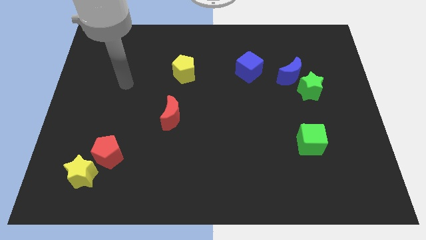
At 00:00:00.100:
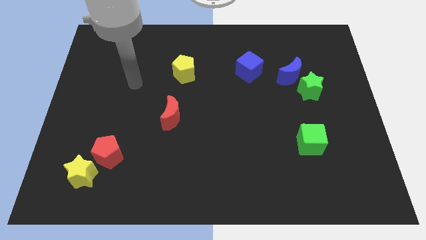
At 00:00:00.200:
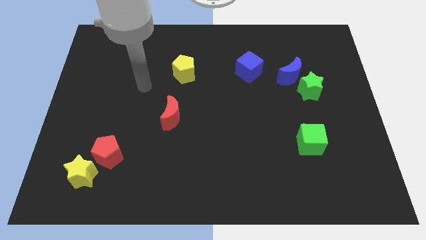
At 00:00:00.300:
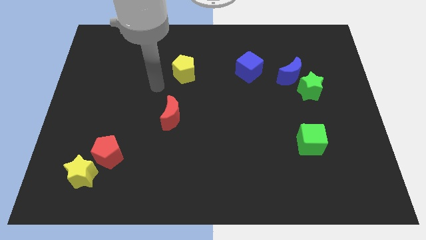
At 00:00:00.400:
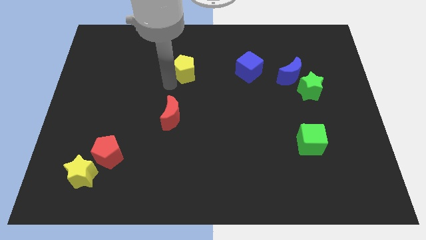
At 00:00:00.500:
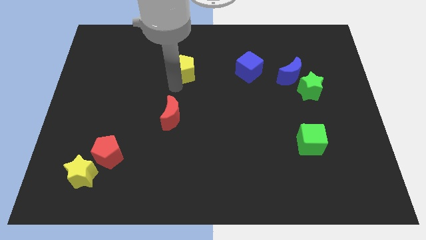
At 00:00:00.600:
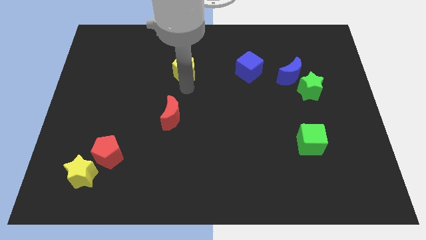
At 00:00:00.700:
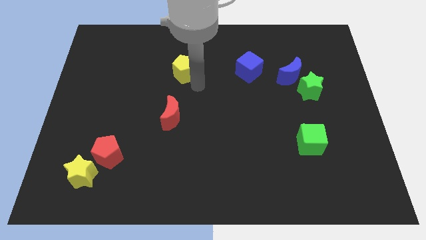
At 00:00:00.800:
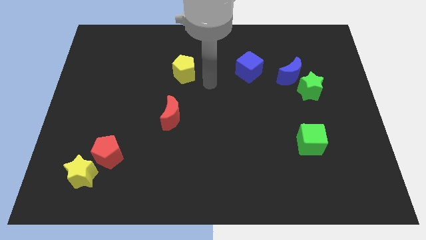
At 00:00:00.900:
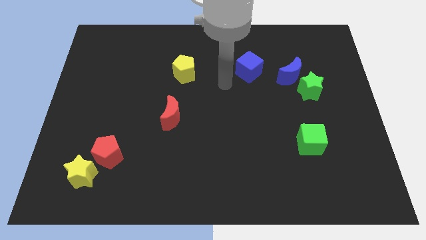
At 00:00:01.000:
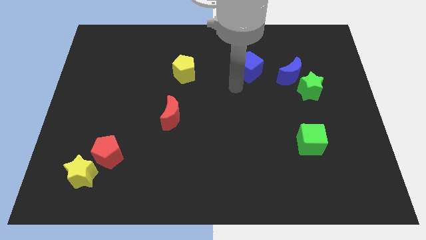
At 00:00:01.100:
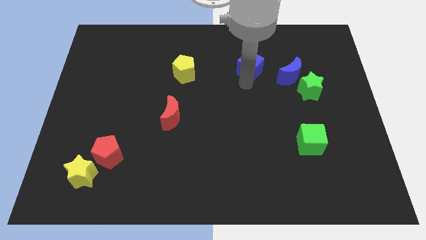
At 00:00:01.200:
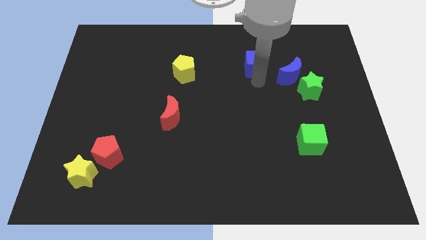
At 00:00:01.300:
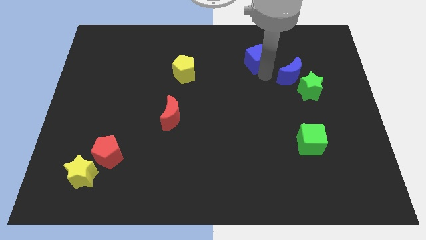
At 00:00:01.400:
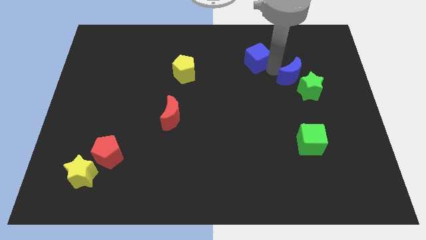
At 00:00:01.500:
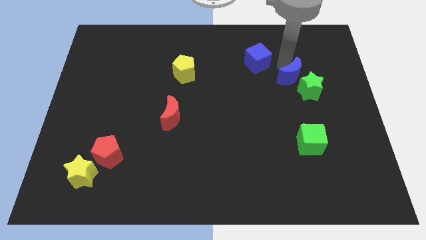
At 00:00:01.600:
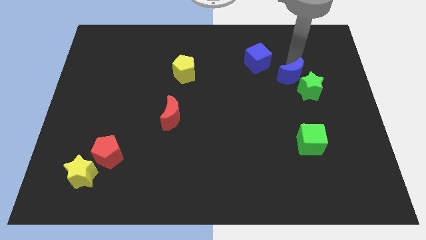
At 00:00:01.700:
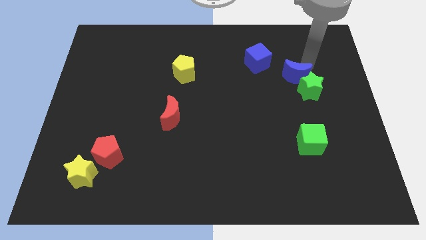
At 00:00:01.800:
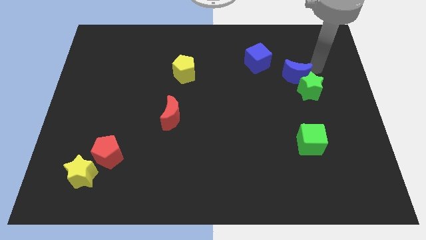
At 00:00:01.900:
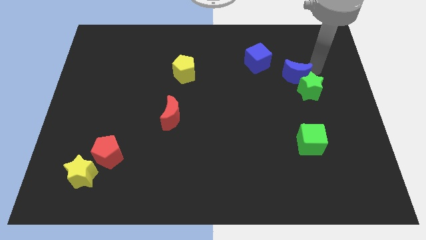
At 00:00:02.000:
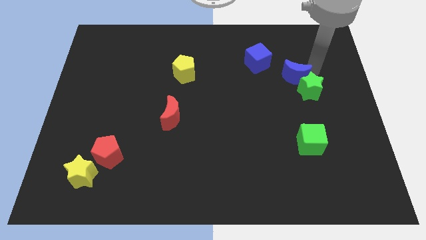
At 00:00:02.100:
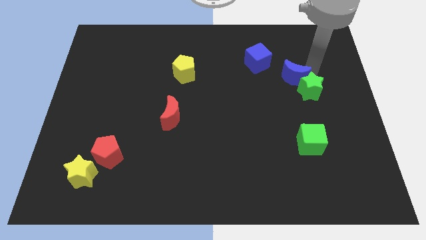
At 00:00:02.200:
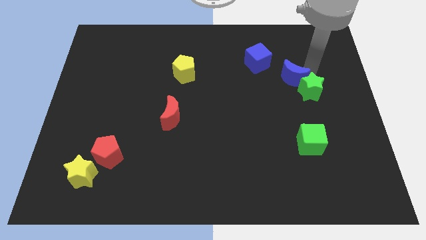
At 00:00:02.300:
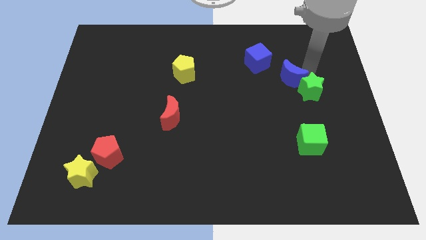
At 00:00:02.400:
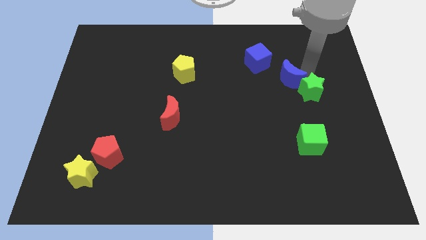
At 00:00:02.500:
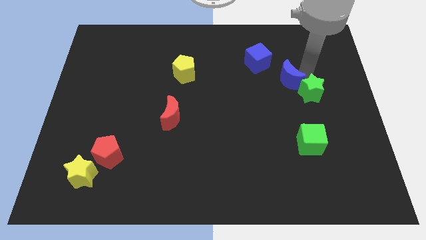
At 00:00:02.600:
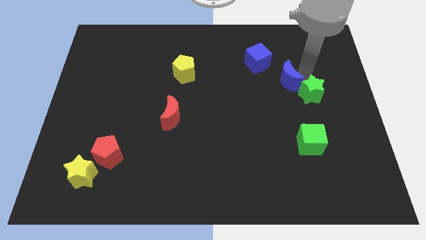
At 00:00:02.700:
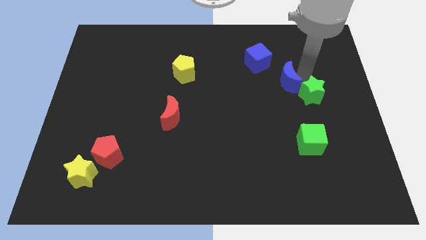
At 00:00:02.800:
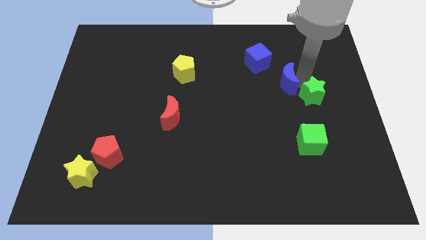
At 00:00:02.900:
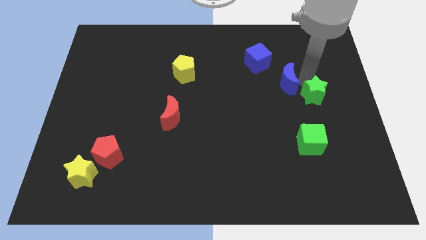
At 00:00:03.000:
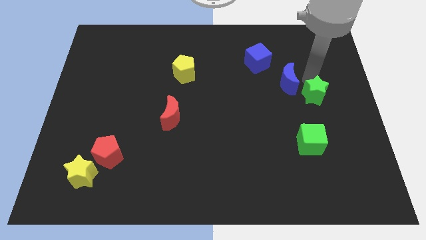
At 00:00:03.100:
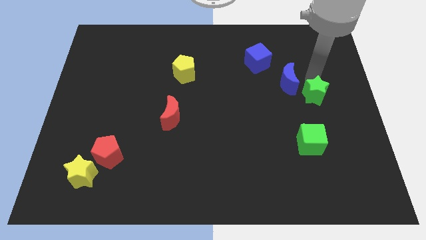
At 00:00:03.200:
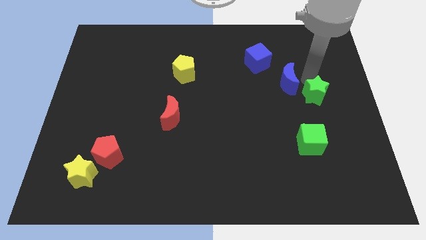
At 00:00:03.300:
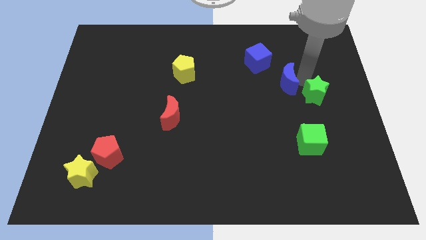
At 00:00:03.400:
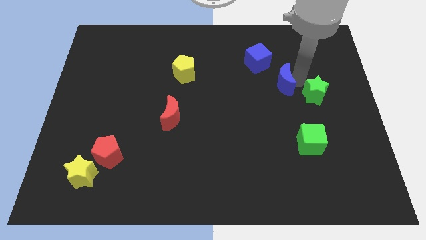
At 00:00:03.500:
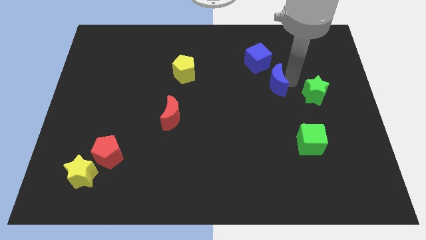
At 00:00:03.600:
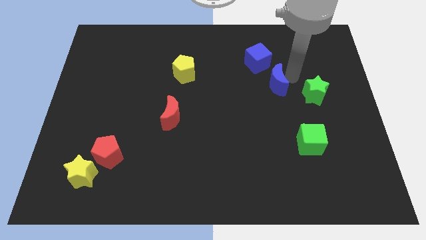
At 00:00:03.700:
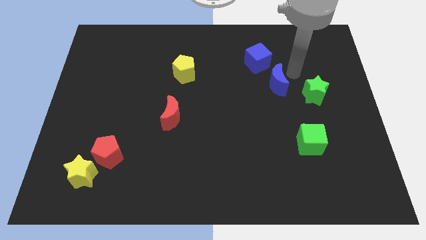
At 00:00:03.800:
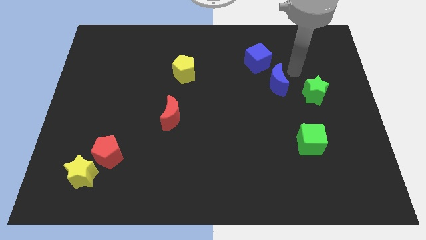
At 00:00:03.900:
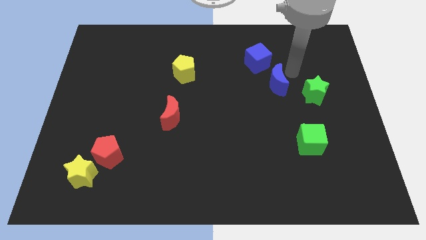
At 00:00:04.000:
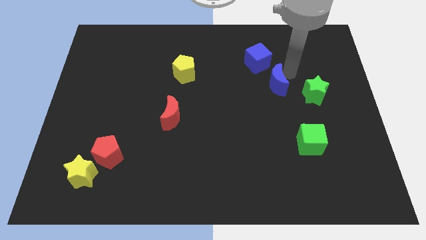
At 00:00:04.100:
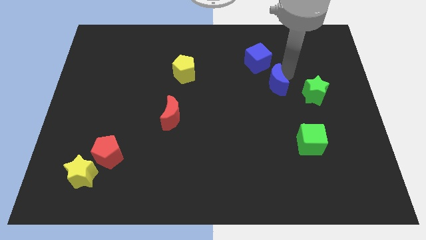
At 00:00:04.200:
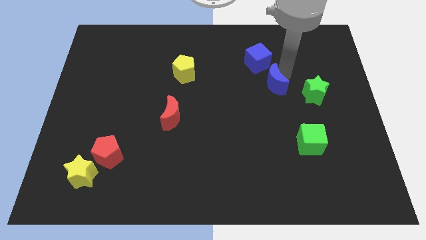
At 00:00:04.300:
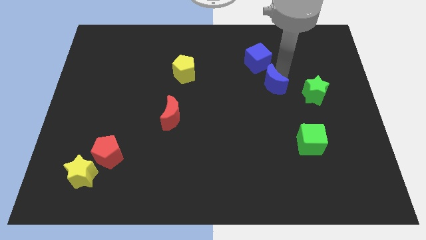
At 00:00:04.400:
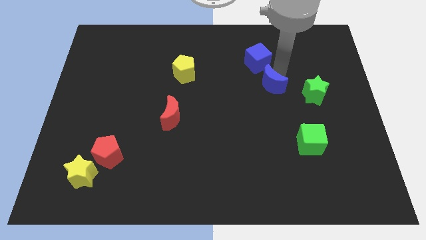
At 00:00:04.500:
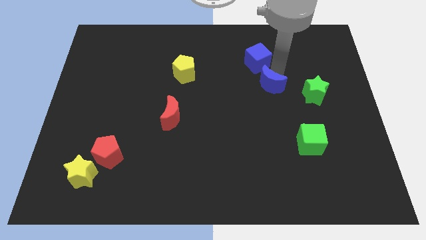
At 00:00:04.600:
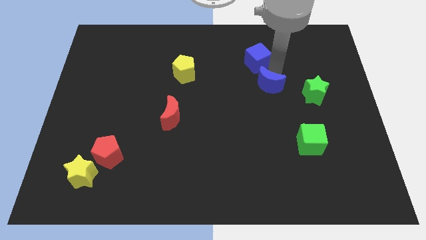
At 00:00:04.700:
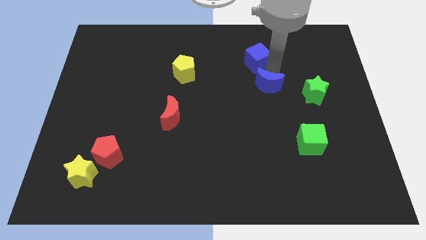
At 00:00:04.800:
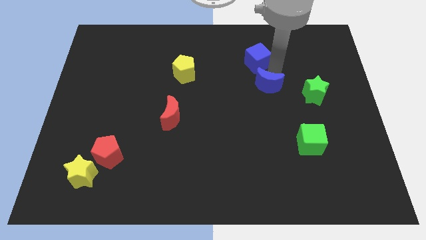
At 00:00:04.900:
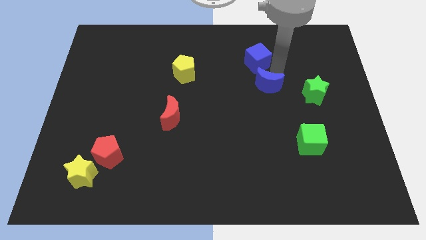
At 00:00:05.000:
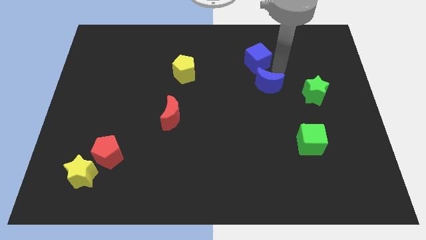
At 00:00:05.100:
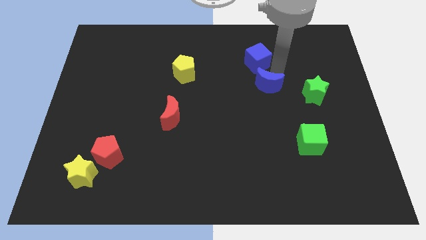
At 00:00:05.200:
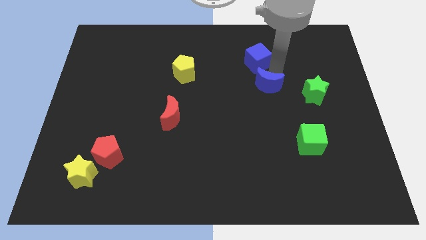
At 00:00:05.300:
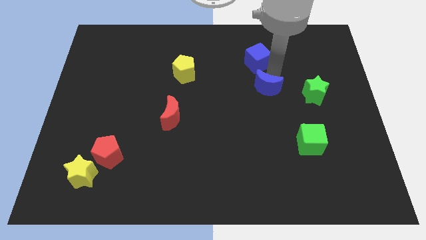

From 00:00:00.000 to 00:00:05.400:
slide the blue moon a little bit downwards and then left

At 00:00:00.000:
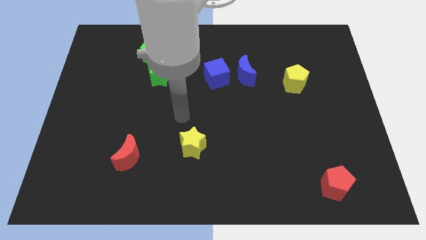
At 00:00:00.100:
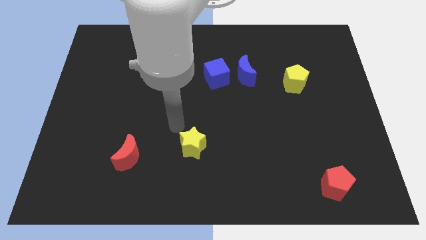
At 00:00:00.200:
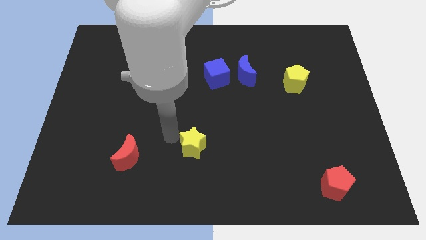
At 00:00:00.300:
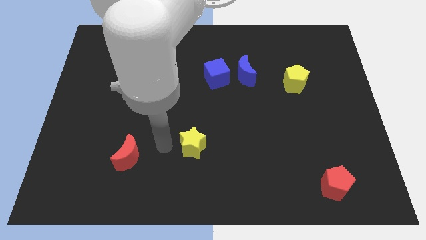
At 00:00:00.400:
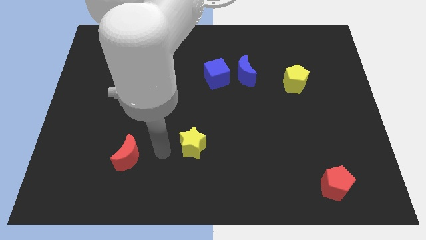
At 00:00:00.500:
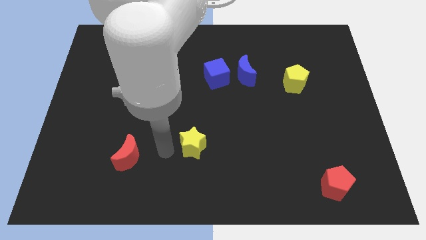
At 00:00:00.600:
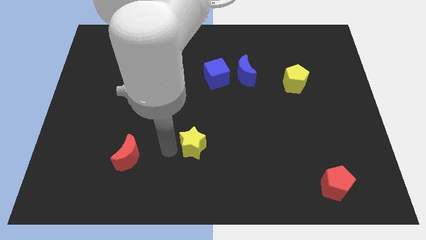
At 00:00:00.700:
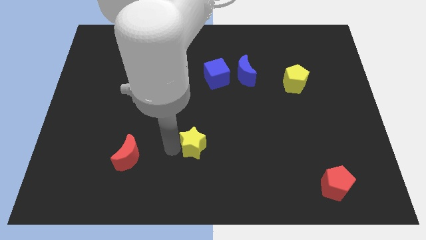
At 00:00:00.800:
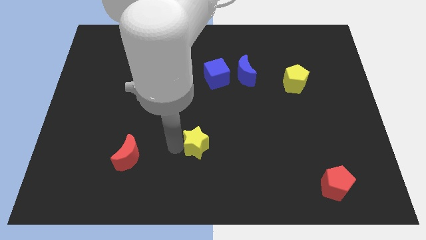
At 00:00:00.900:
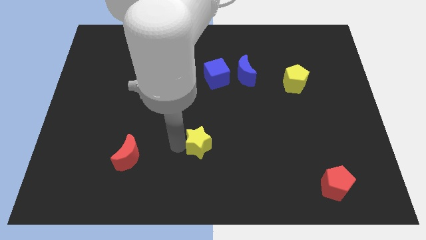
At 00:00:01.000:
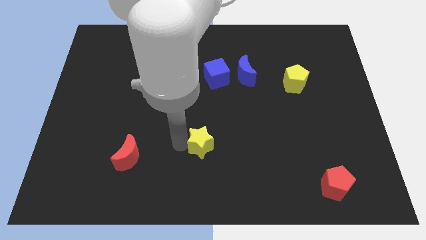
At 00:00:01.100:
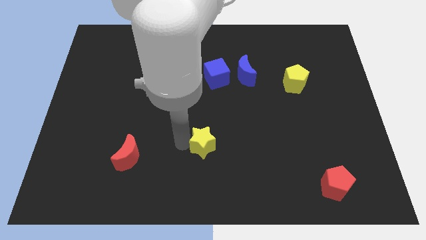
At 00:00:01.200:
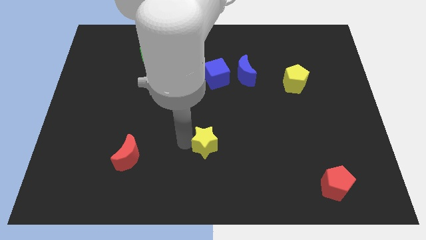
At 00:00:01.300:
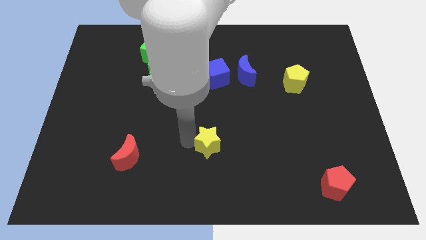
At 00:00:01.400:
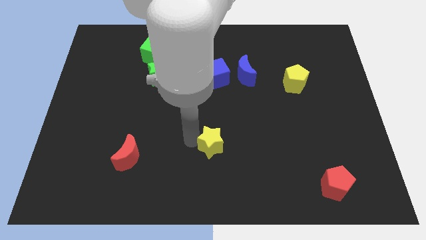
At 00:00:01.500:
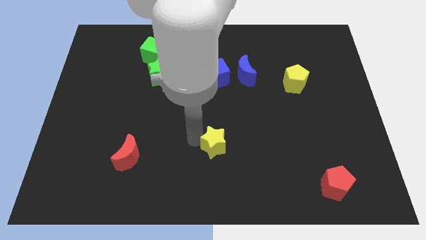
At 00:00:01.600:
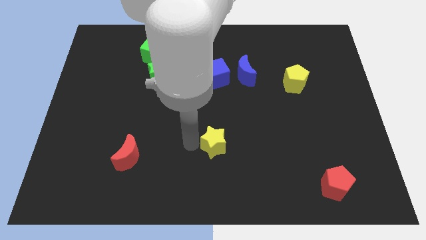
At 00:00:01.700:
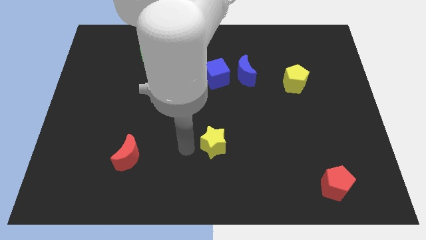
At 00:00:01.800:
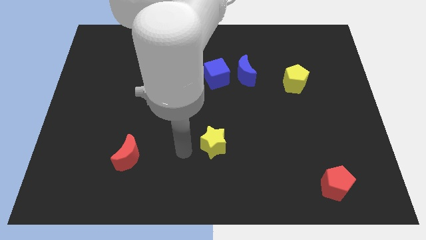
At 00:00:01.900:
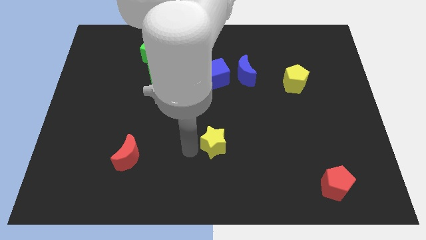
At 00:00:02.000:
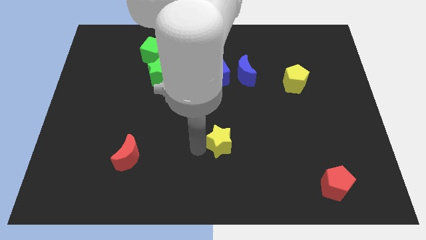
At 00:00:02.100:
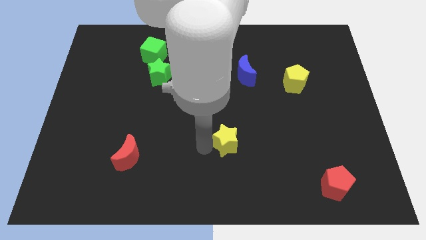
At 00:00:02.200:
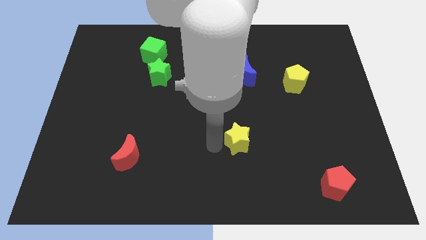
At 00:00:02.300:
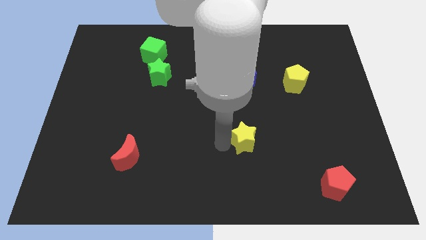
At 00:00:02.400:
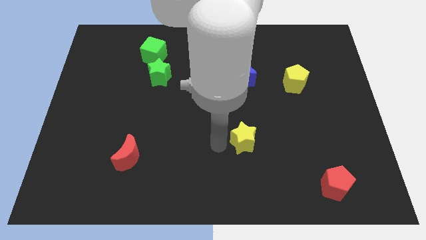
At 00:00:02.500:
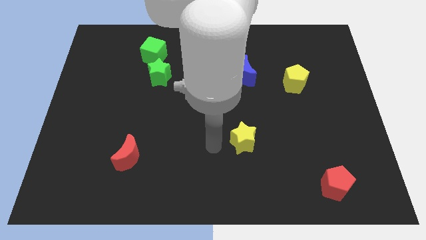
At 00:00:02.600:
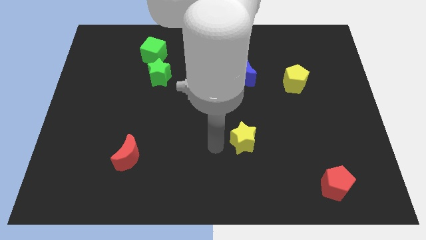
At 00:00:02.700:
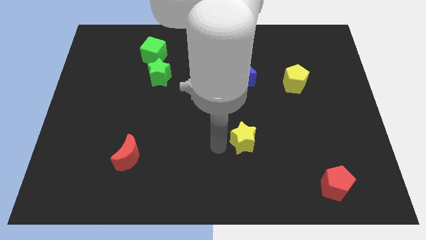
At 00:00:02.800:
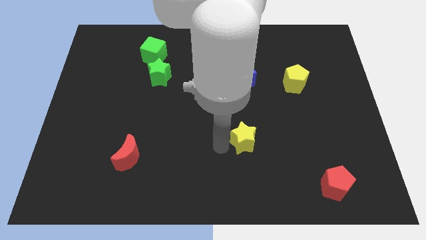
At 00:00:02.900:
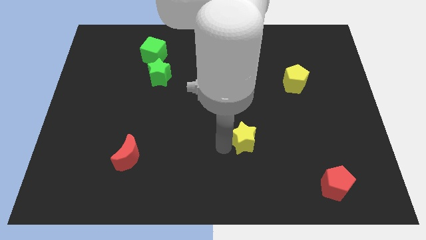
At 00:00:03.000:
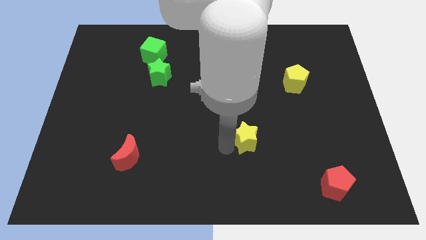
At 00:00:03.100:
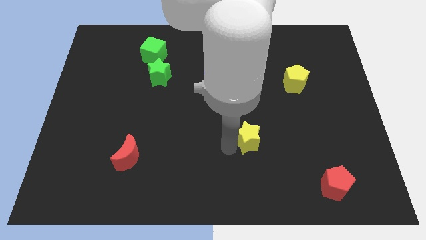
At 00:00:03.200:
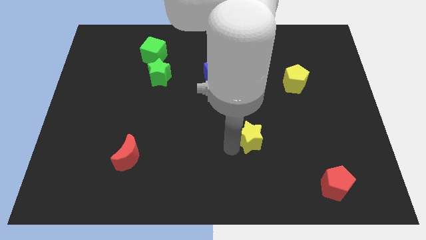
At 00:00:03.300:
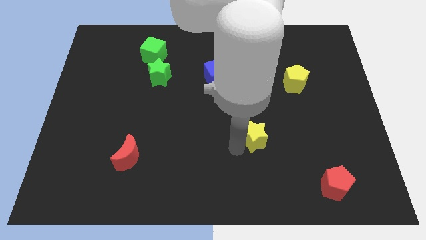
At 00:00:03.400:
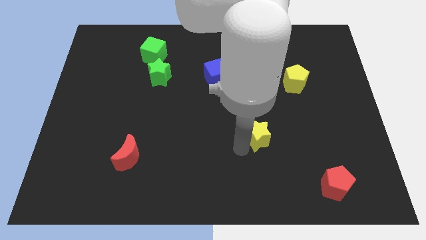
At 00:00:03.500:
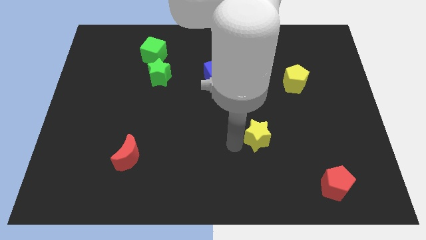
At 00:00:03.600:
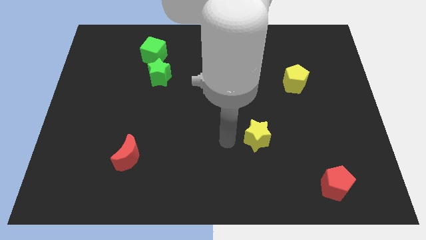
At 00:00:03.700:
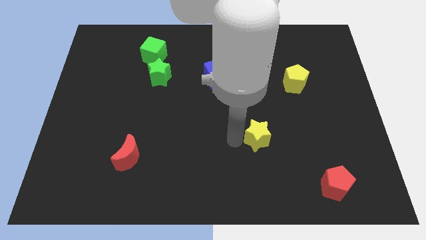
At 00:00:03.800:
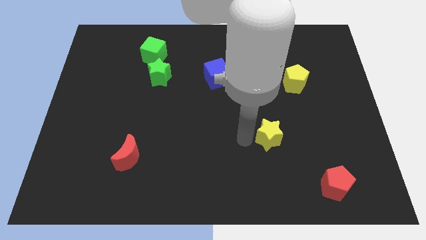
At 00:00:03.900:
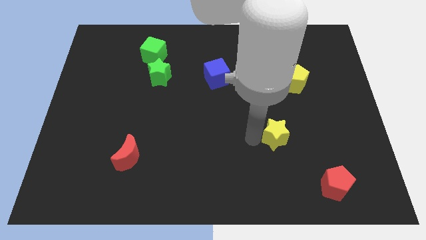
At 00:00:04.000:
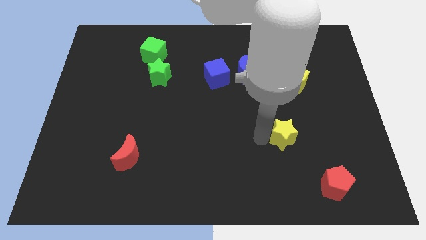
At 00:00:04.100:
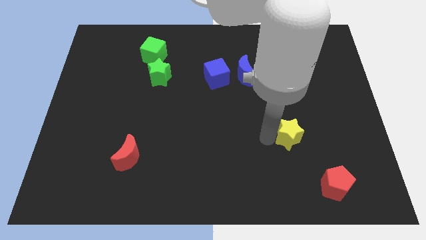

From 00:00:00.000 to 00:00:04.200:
move the yellow star right
